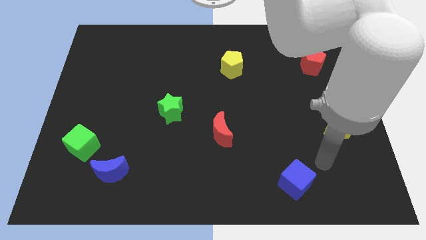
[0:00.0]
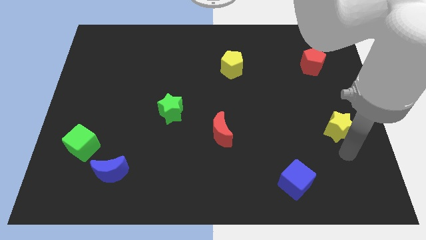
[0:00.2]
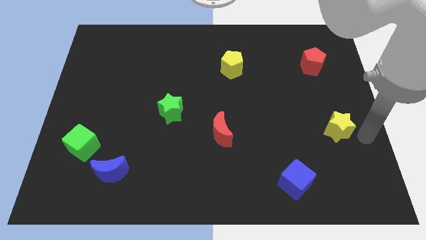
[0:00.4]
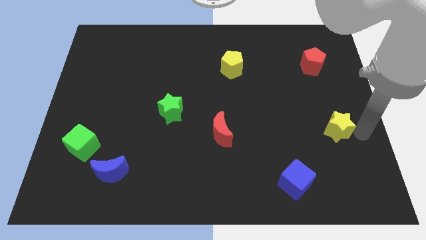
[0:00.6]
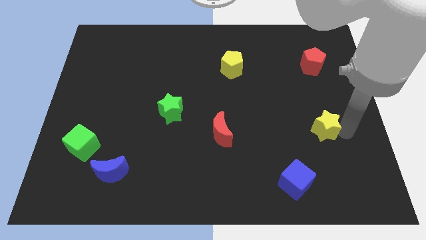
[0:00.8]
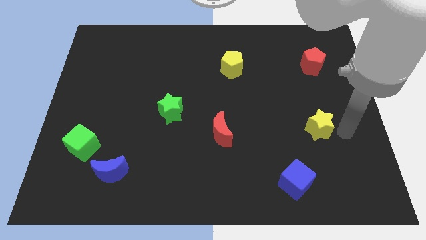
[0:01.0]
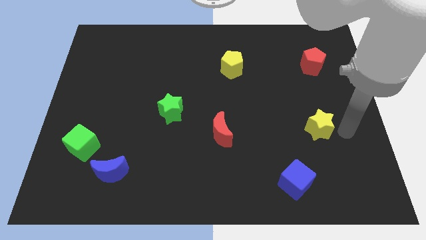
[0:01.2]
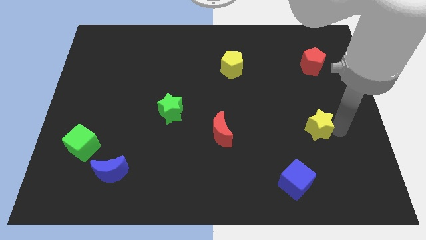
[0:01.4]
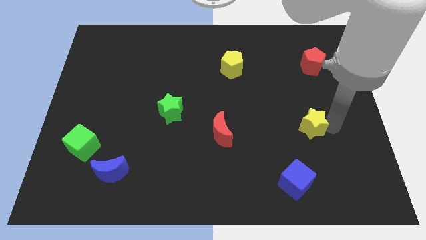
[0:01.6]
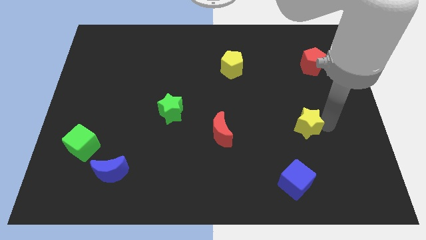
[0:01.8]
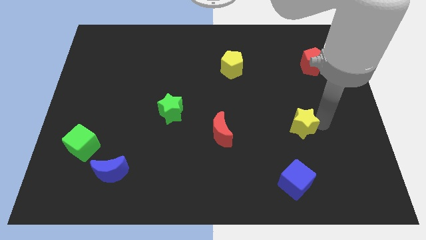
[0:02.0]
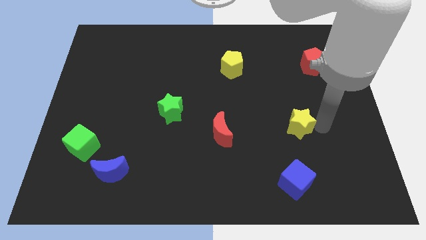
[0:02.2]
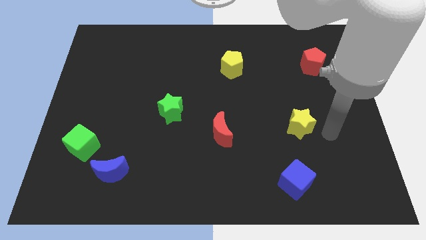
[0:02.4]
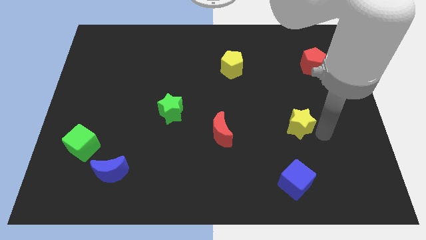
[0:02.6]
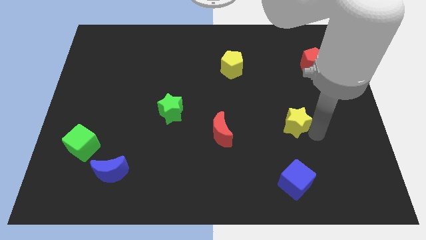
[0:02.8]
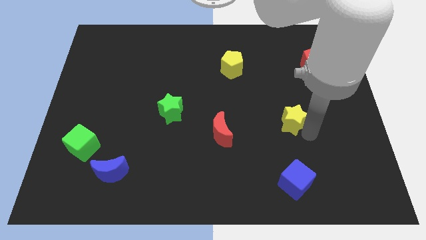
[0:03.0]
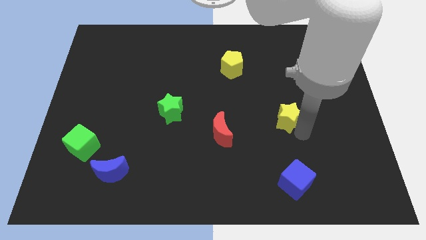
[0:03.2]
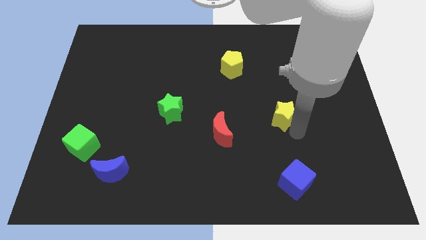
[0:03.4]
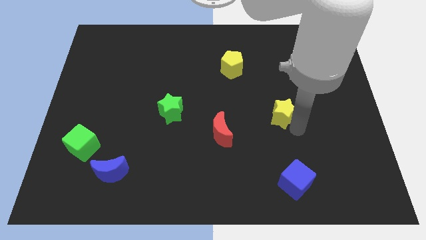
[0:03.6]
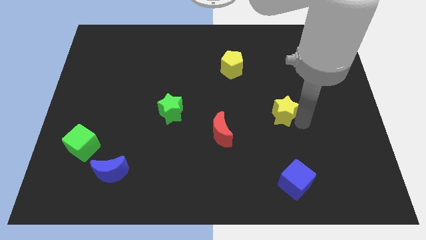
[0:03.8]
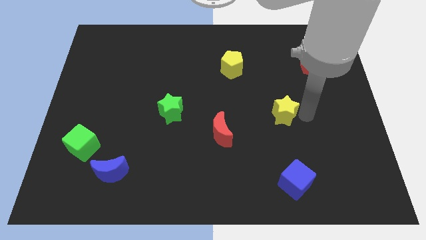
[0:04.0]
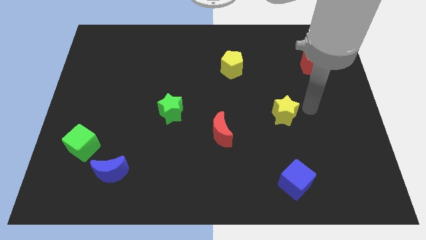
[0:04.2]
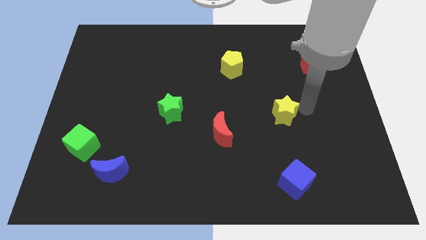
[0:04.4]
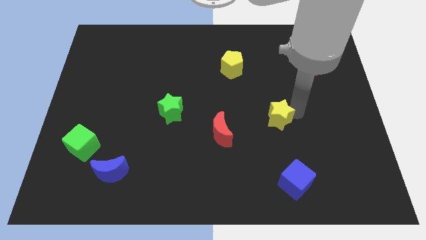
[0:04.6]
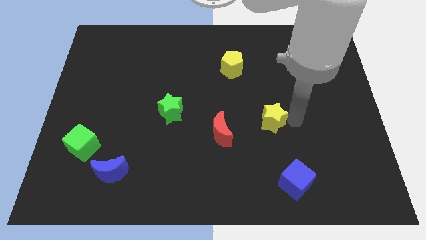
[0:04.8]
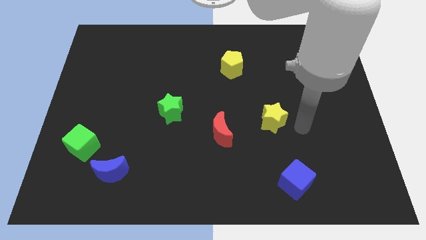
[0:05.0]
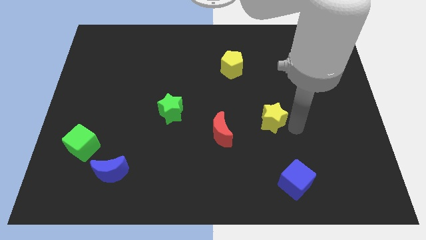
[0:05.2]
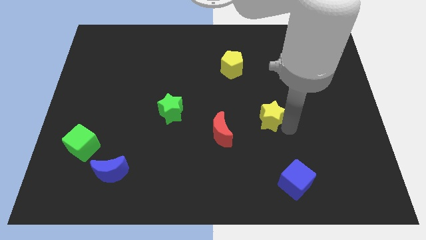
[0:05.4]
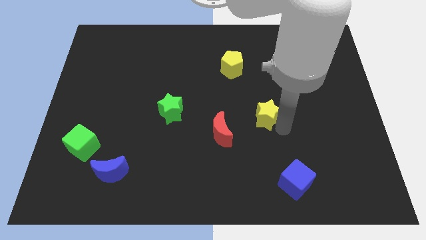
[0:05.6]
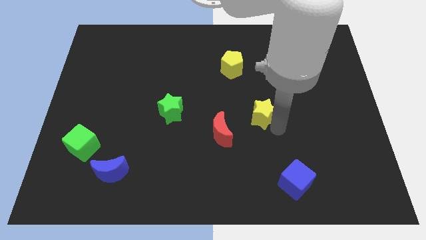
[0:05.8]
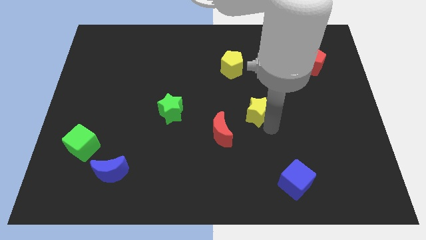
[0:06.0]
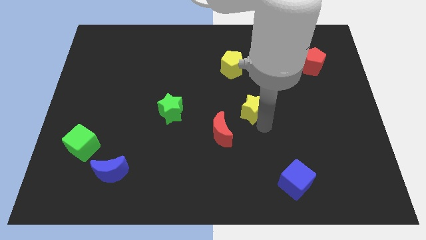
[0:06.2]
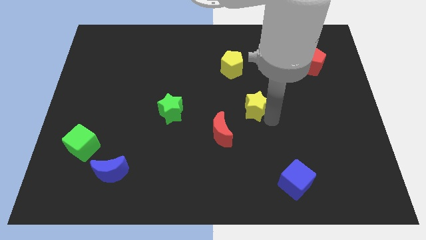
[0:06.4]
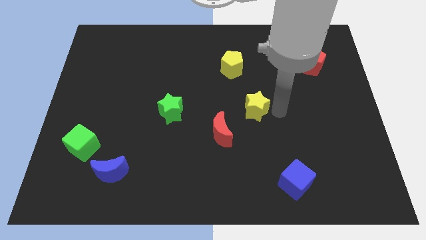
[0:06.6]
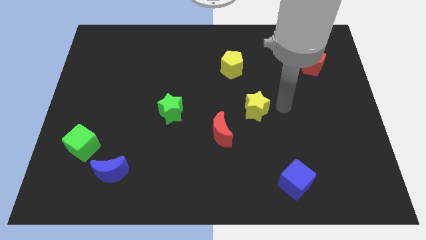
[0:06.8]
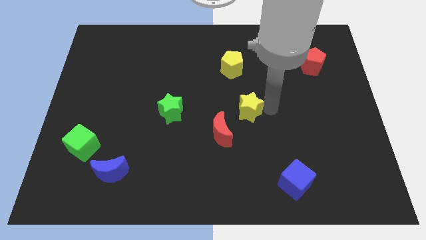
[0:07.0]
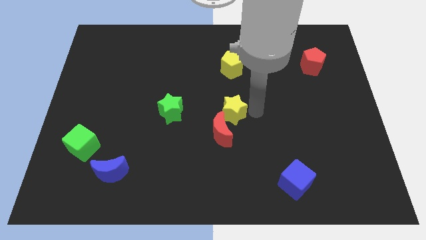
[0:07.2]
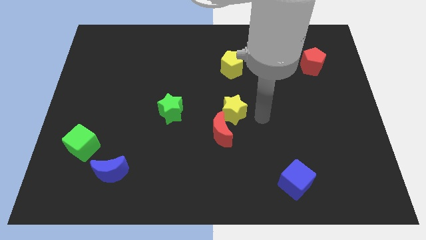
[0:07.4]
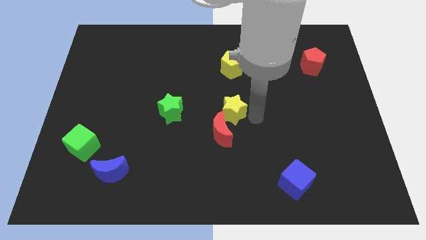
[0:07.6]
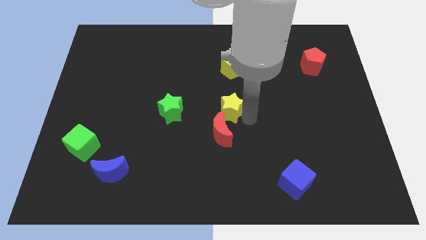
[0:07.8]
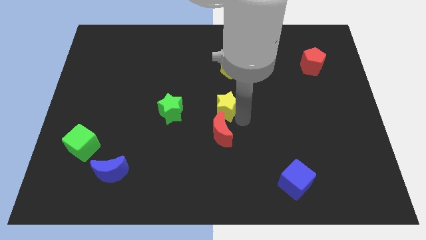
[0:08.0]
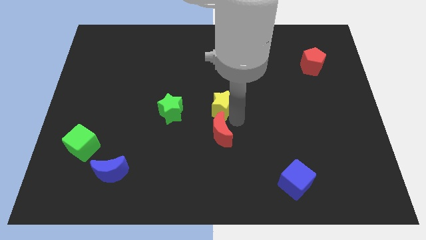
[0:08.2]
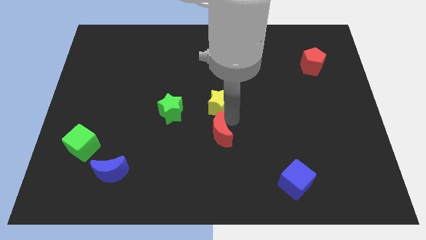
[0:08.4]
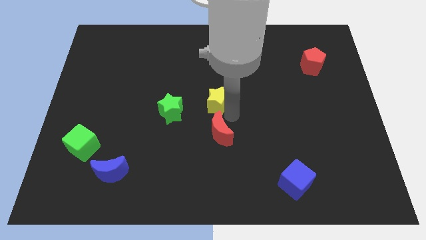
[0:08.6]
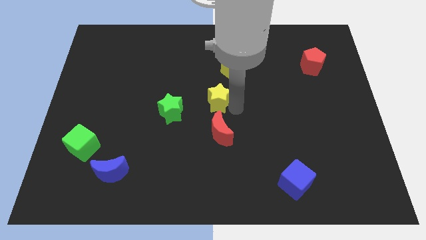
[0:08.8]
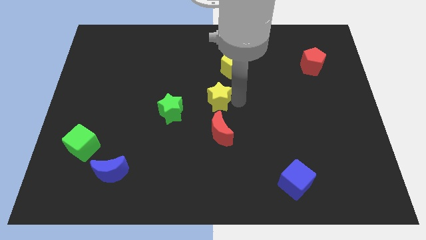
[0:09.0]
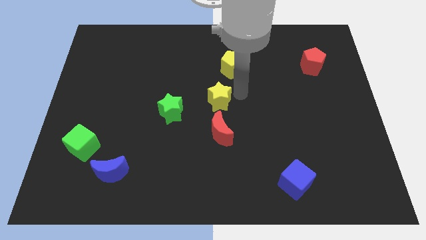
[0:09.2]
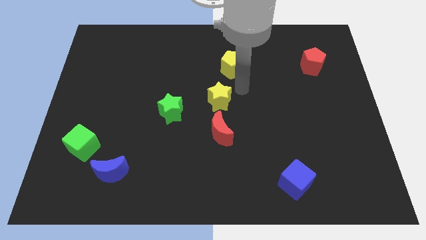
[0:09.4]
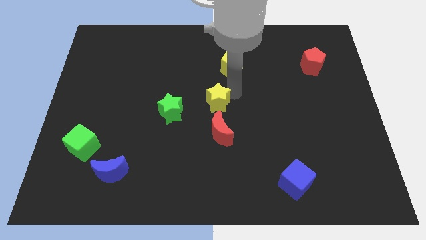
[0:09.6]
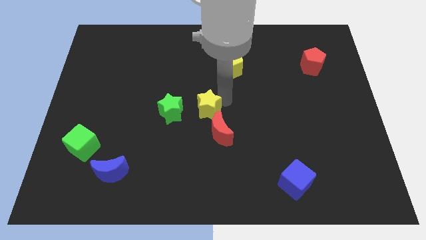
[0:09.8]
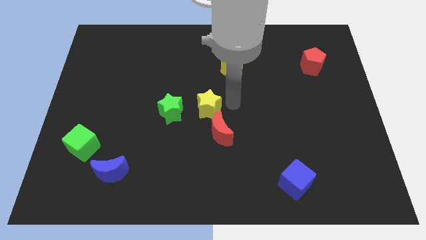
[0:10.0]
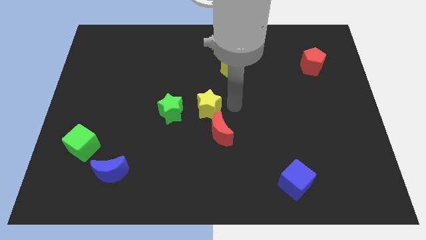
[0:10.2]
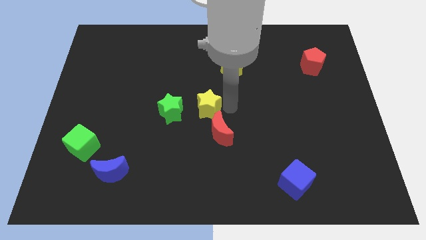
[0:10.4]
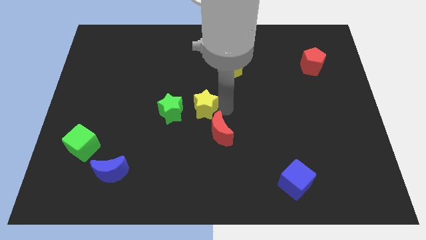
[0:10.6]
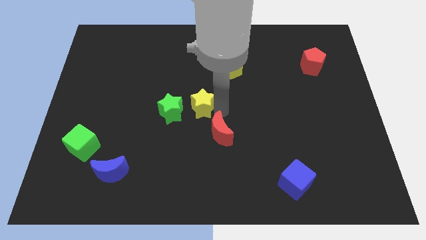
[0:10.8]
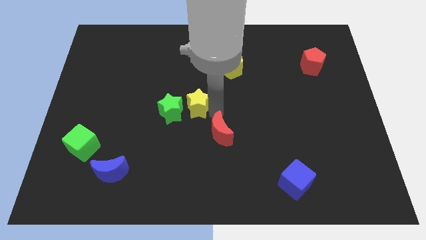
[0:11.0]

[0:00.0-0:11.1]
put the yellow star to the green star
